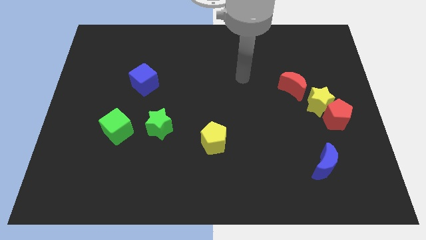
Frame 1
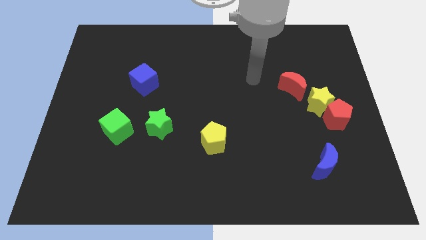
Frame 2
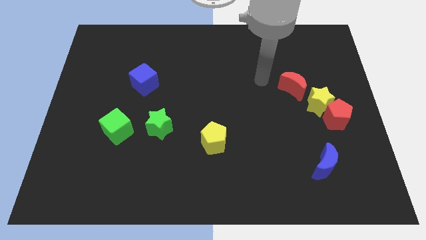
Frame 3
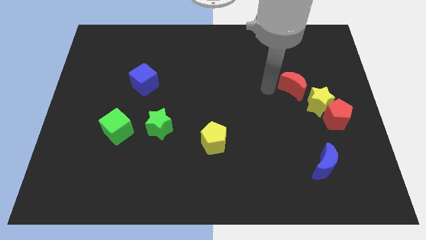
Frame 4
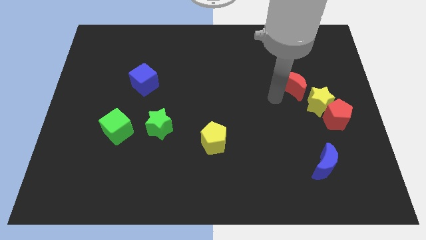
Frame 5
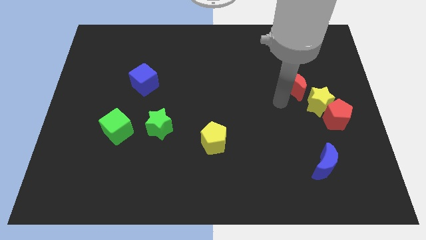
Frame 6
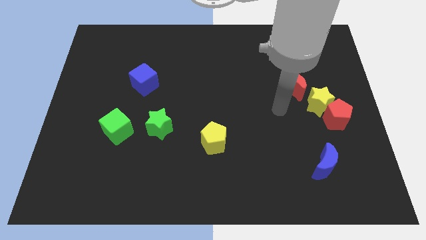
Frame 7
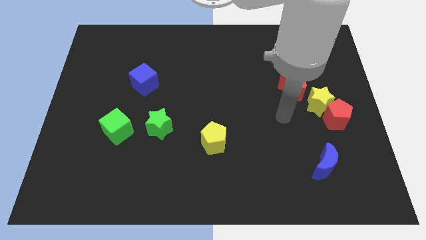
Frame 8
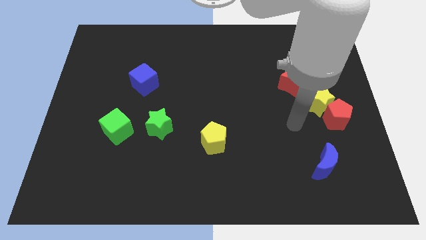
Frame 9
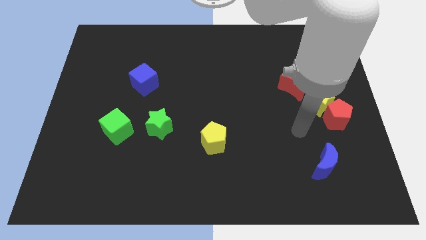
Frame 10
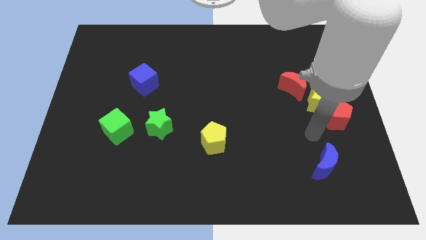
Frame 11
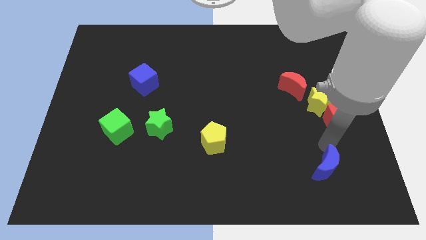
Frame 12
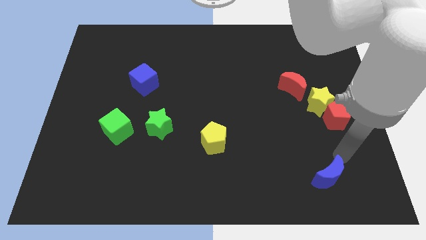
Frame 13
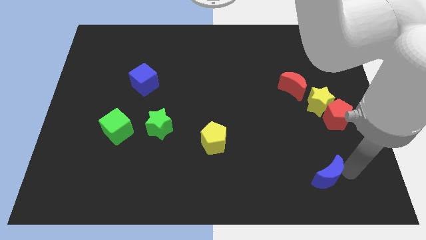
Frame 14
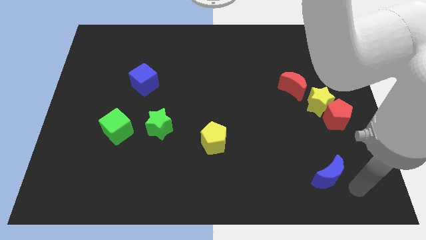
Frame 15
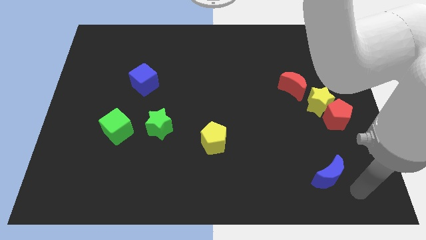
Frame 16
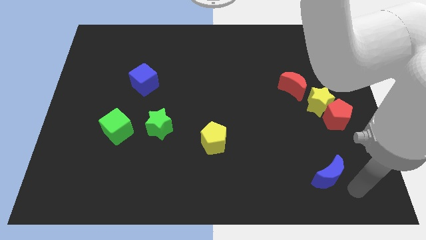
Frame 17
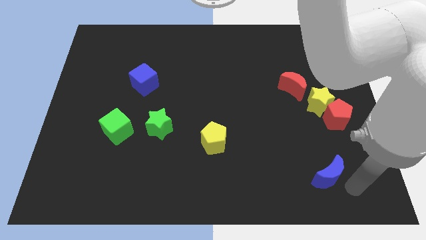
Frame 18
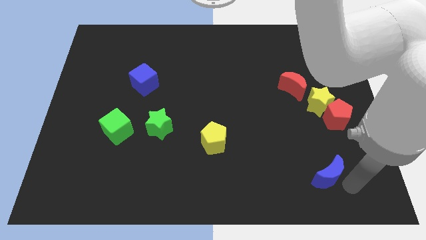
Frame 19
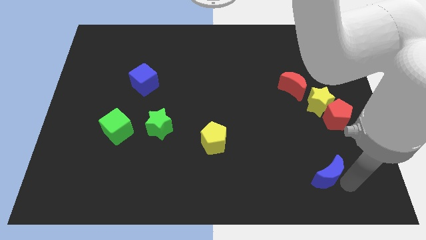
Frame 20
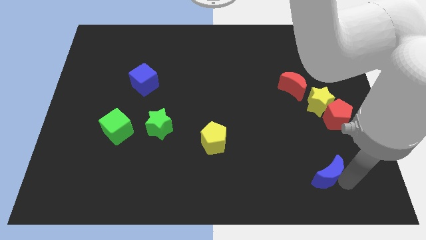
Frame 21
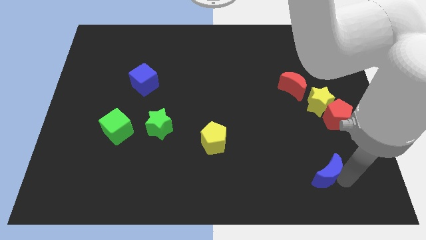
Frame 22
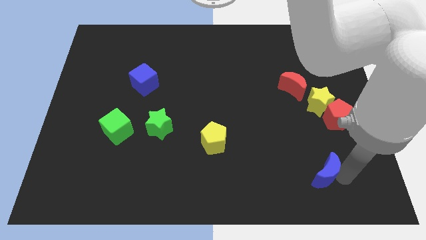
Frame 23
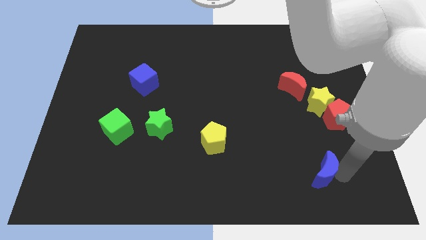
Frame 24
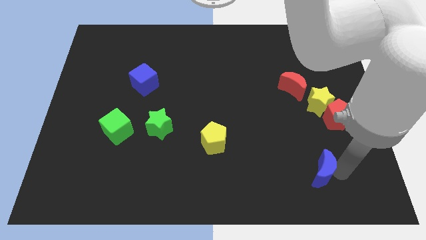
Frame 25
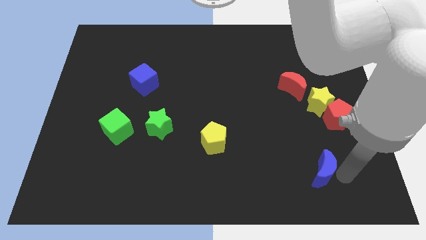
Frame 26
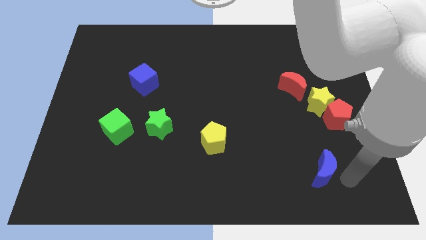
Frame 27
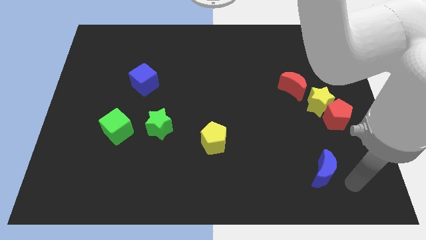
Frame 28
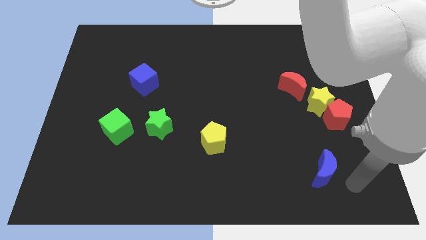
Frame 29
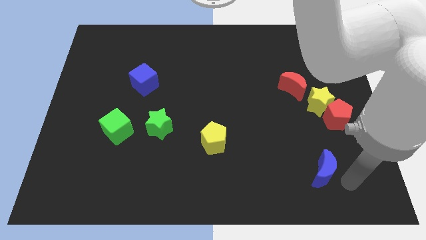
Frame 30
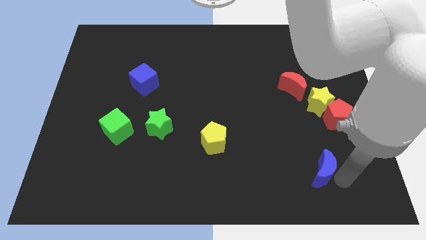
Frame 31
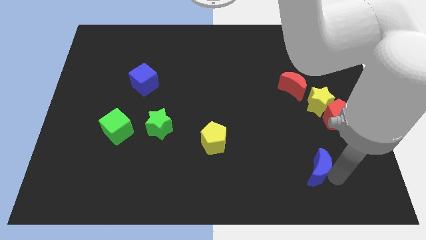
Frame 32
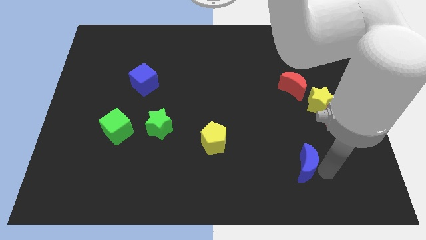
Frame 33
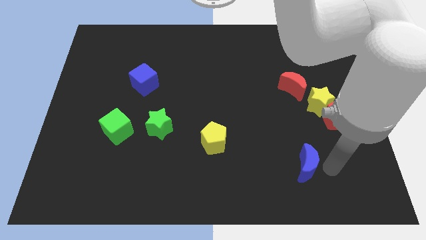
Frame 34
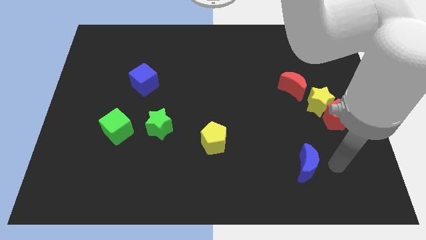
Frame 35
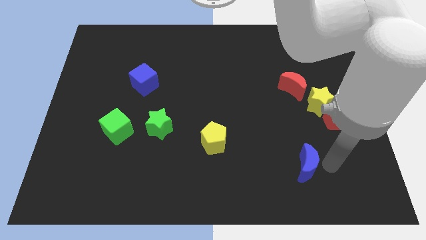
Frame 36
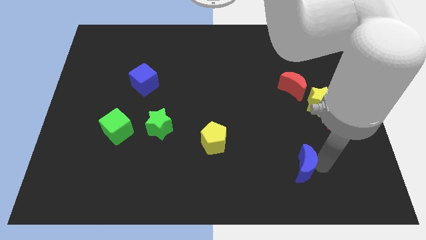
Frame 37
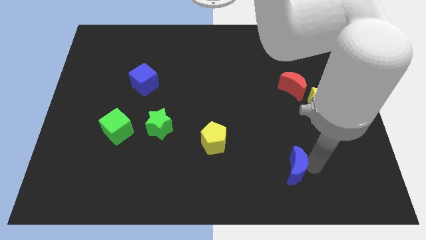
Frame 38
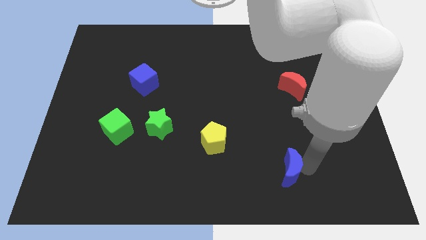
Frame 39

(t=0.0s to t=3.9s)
move the blue moon a little bit left

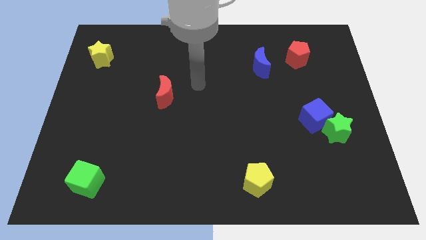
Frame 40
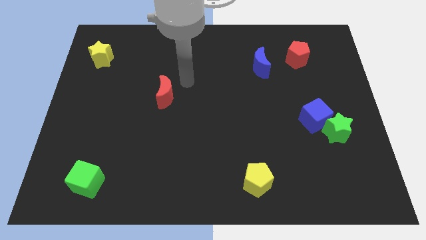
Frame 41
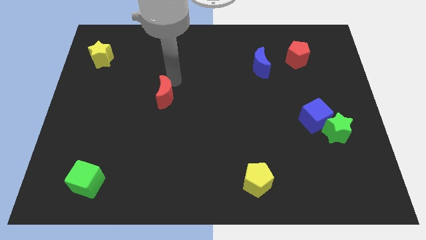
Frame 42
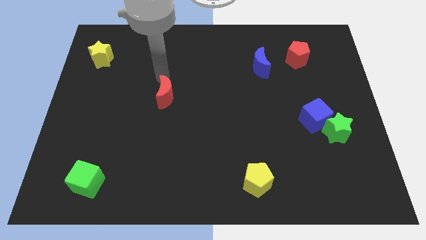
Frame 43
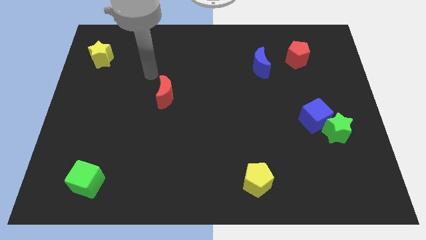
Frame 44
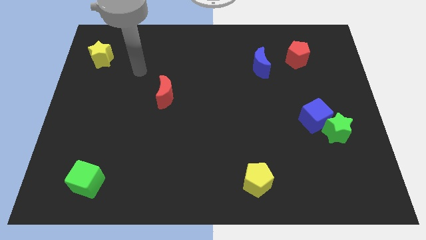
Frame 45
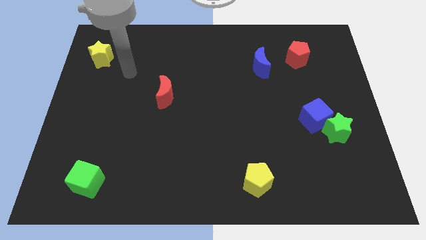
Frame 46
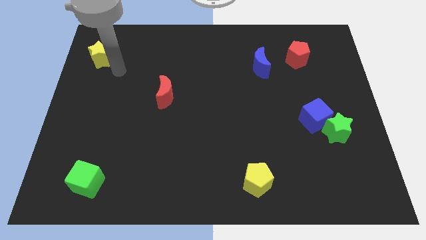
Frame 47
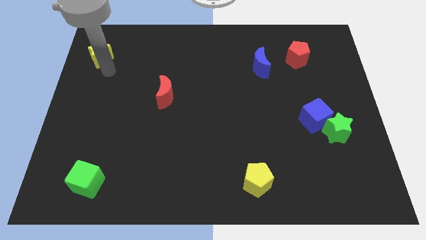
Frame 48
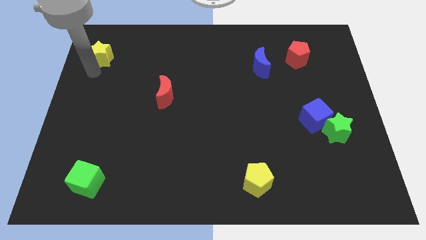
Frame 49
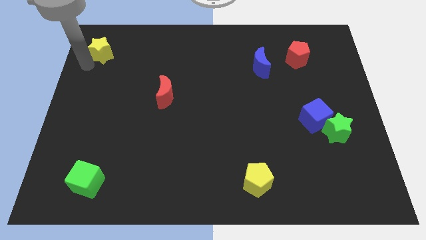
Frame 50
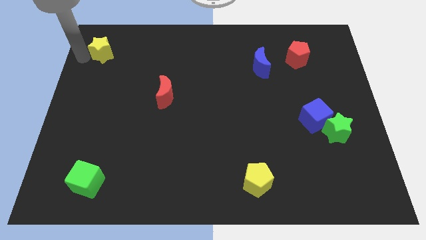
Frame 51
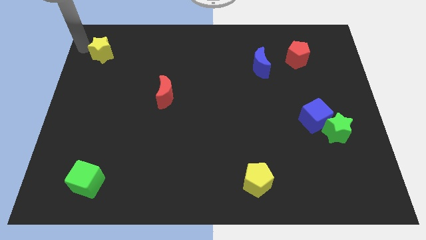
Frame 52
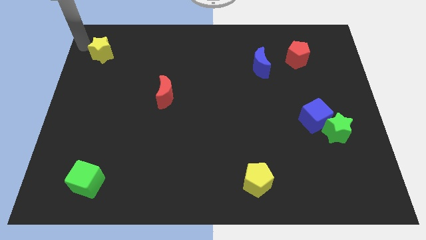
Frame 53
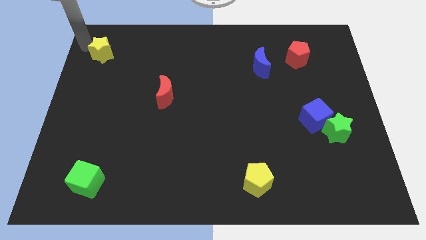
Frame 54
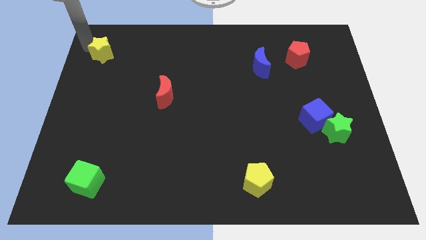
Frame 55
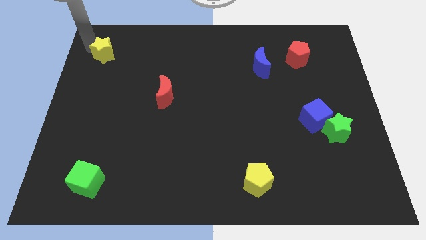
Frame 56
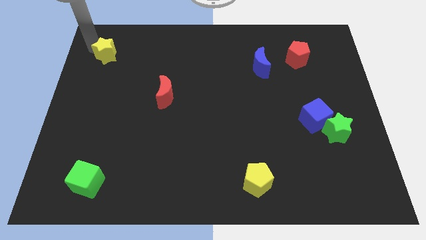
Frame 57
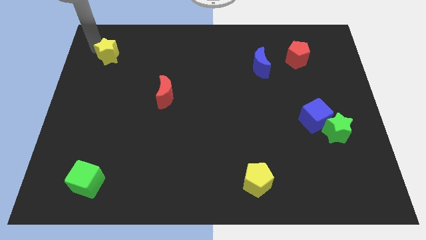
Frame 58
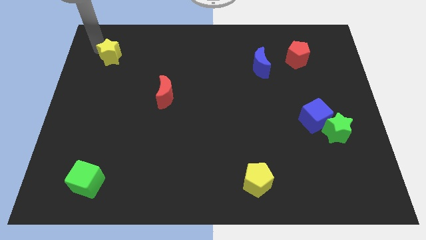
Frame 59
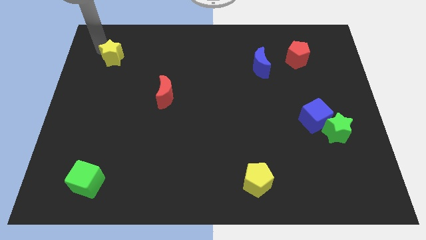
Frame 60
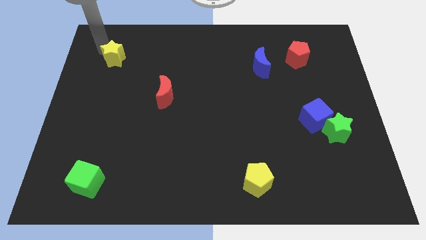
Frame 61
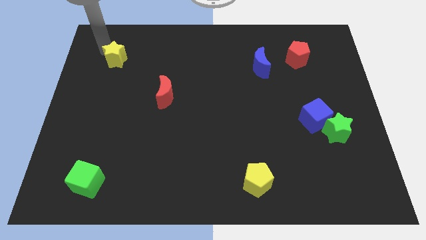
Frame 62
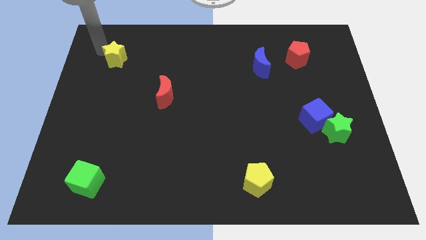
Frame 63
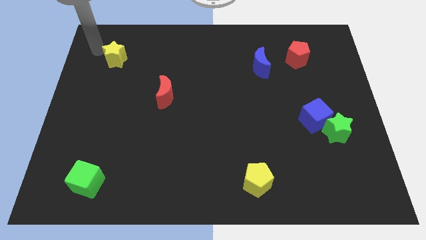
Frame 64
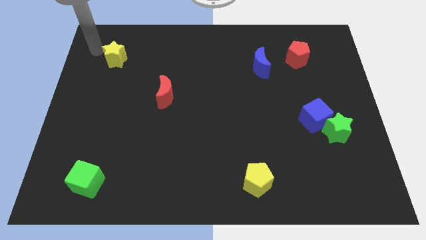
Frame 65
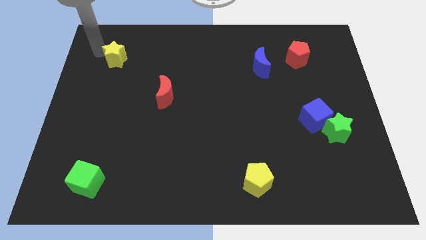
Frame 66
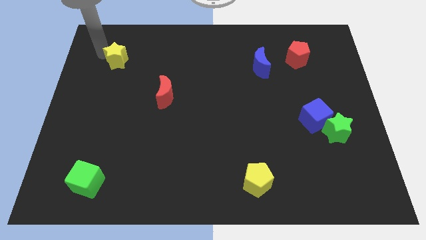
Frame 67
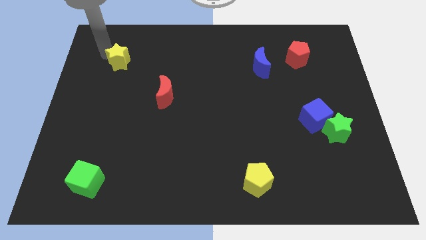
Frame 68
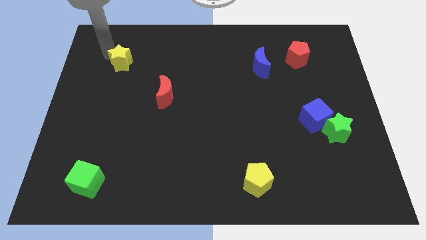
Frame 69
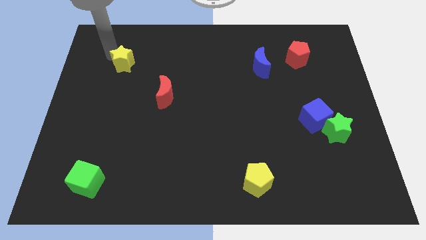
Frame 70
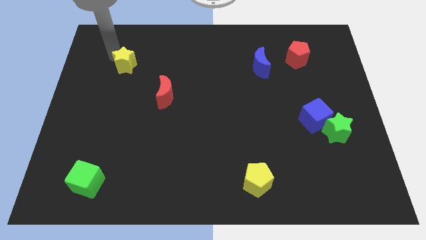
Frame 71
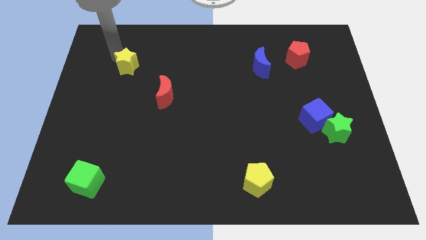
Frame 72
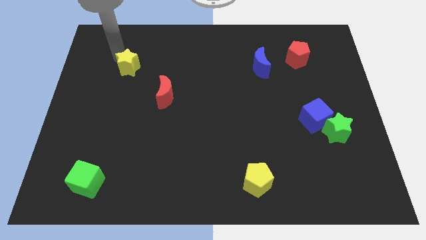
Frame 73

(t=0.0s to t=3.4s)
push the yellow star downwards and to the right diagonally a little

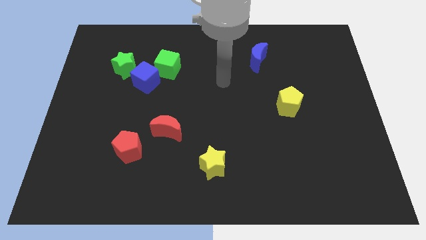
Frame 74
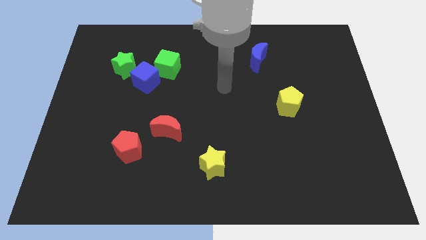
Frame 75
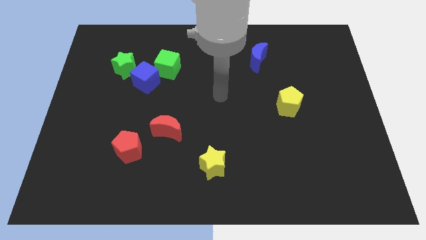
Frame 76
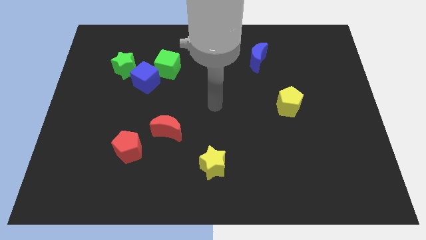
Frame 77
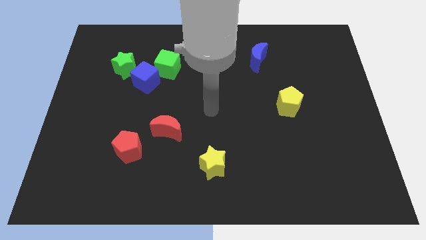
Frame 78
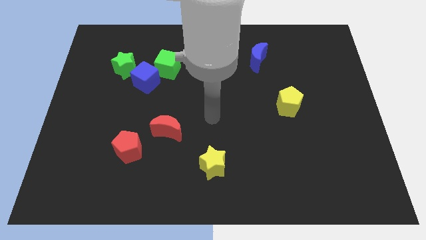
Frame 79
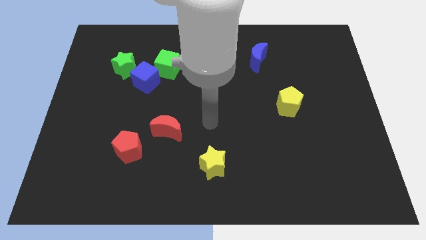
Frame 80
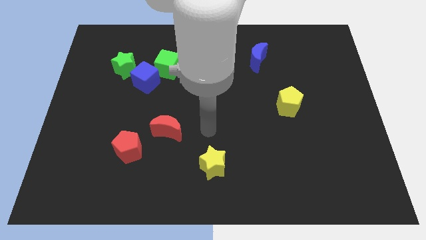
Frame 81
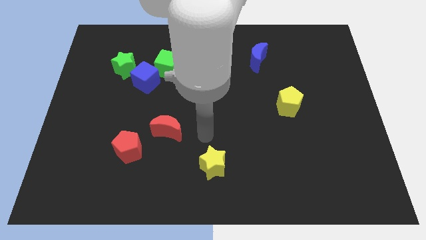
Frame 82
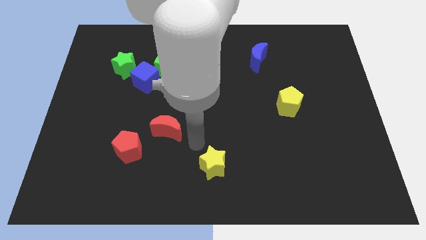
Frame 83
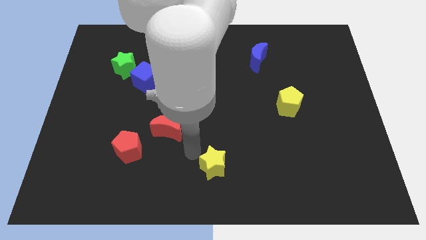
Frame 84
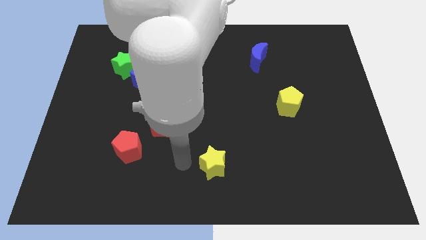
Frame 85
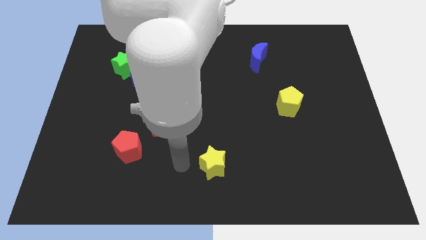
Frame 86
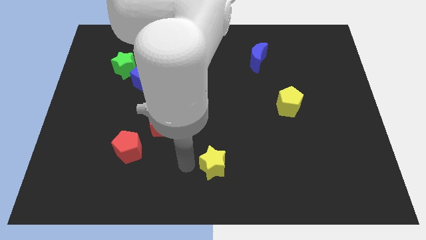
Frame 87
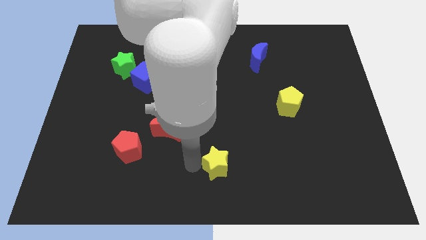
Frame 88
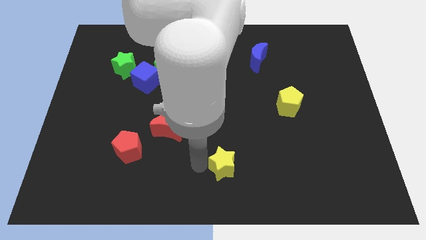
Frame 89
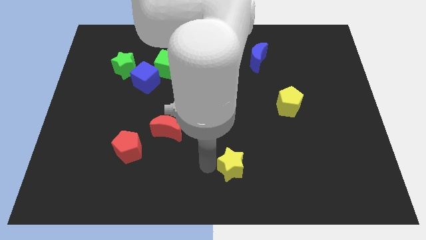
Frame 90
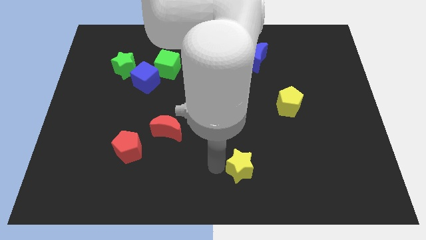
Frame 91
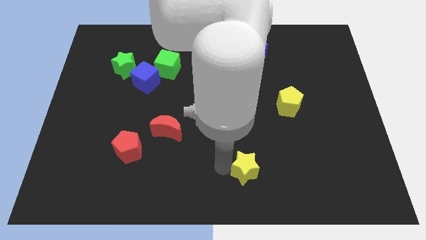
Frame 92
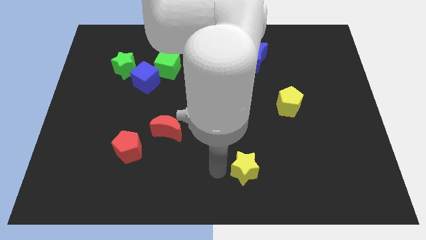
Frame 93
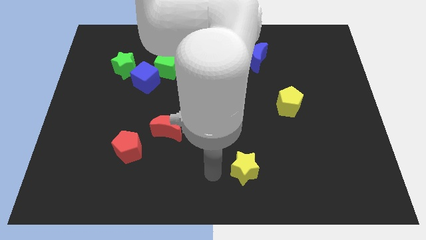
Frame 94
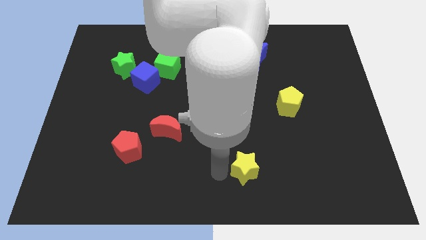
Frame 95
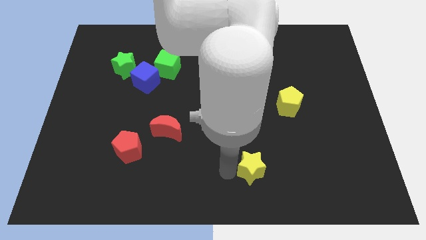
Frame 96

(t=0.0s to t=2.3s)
slightly move the yellow star to the right
